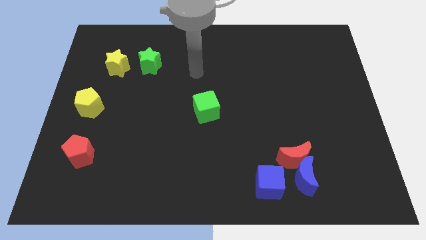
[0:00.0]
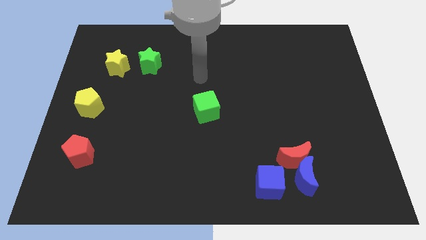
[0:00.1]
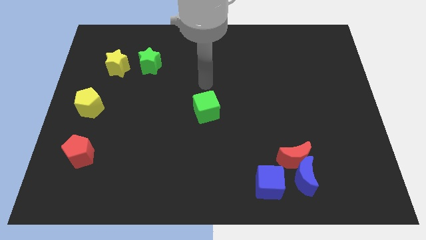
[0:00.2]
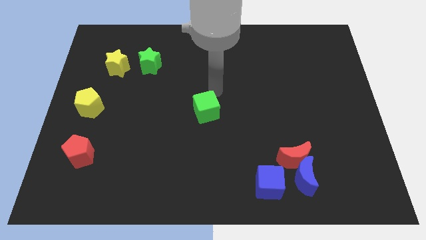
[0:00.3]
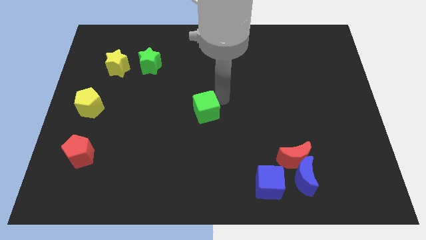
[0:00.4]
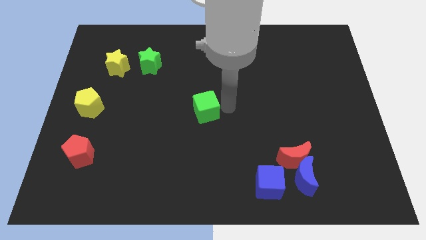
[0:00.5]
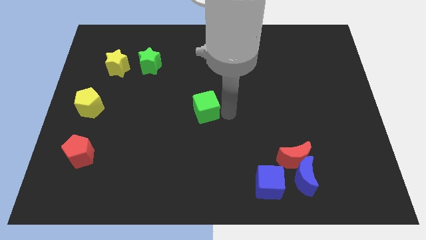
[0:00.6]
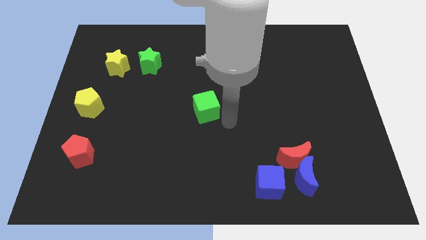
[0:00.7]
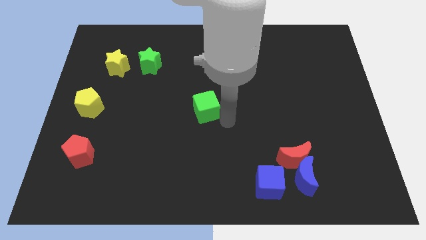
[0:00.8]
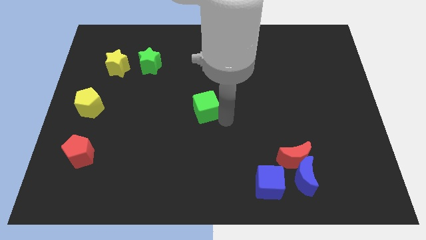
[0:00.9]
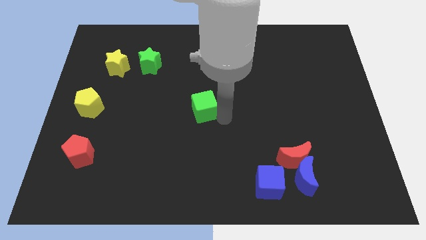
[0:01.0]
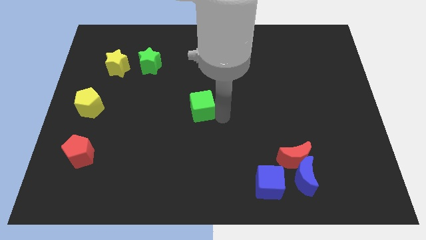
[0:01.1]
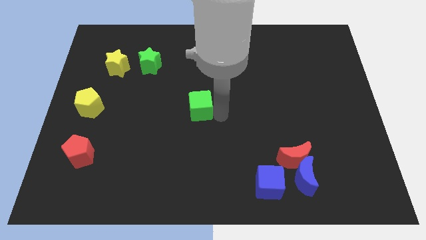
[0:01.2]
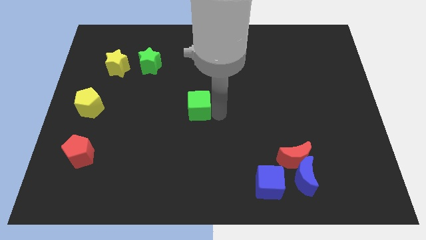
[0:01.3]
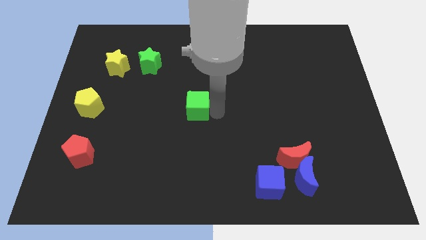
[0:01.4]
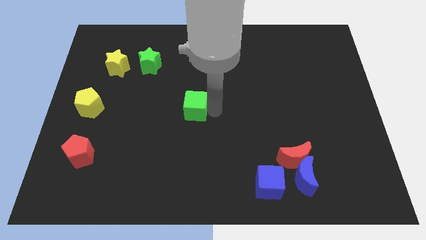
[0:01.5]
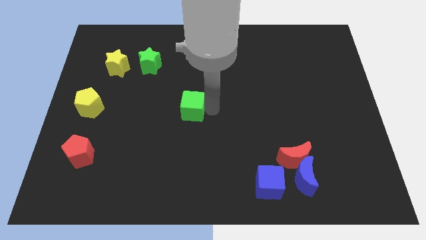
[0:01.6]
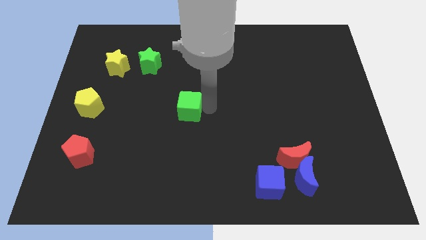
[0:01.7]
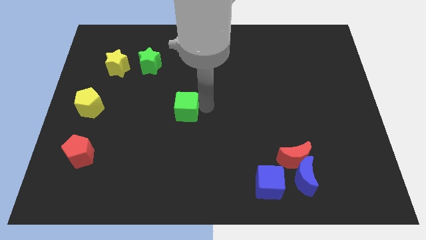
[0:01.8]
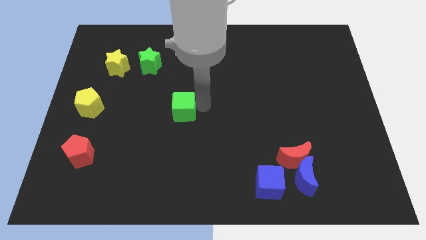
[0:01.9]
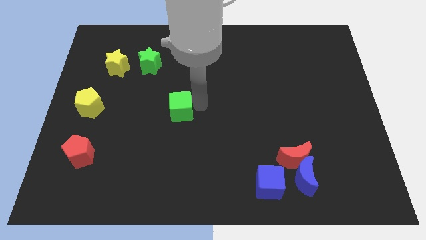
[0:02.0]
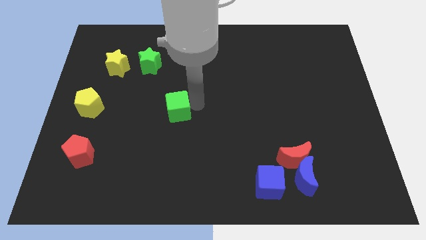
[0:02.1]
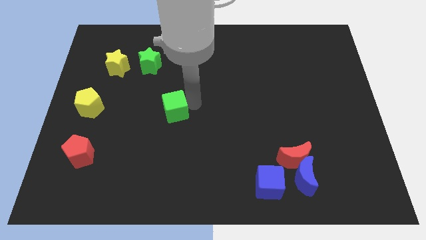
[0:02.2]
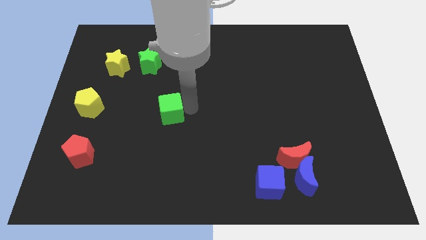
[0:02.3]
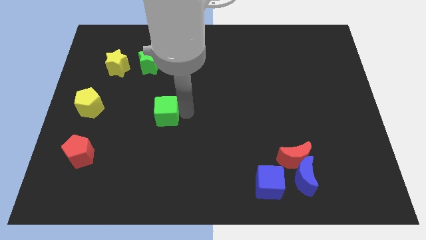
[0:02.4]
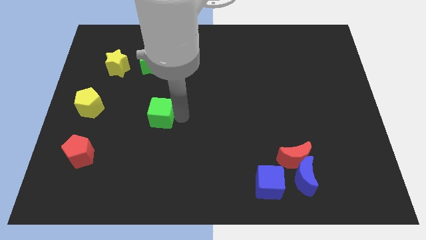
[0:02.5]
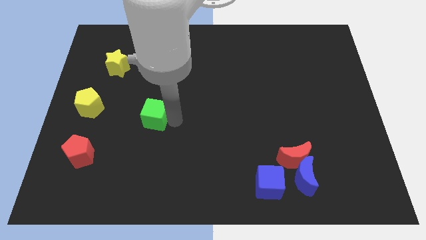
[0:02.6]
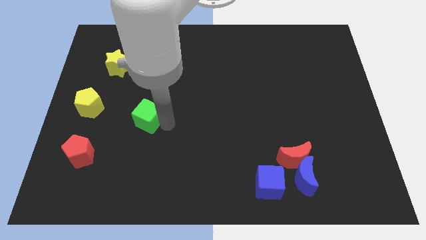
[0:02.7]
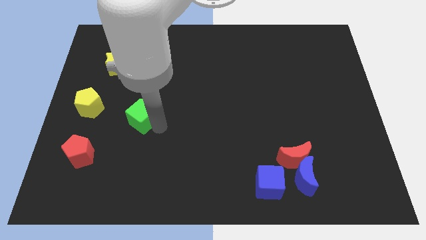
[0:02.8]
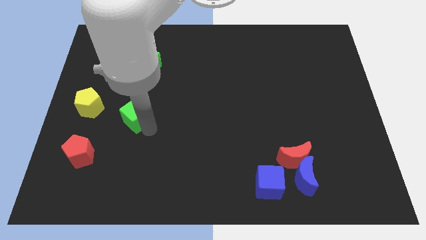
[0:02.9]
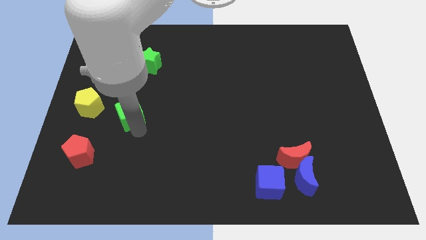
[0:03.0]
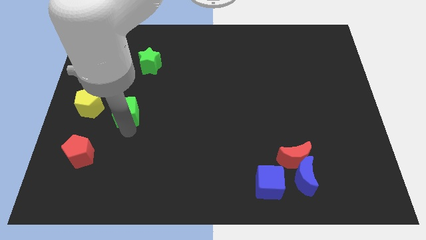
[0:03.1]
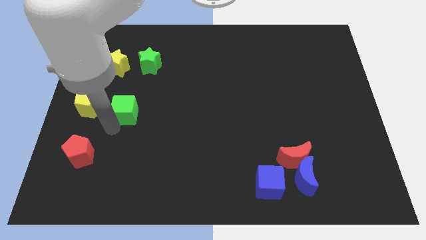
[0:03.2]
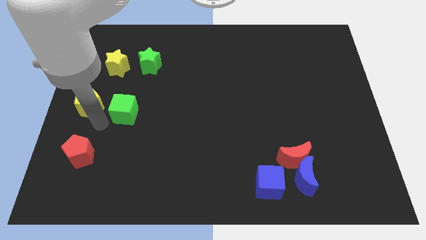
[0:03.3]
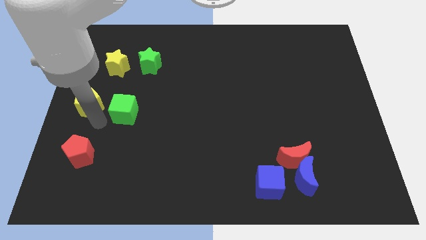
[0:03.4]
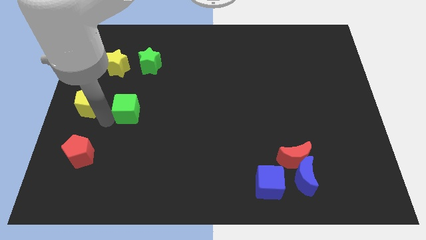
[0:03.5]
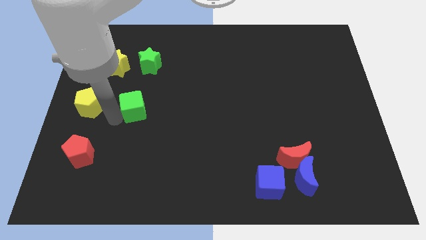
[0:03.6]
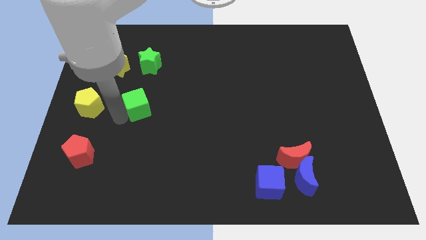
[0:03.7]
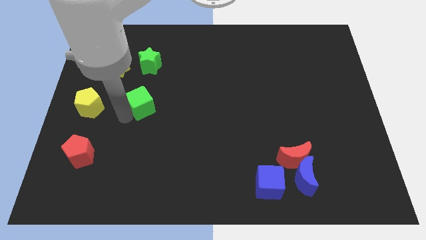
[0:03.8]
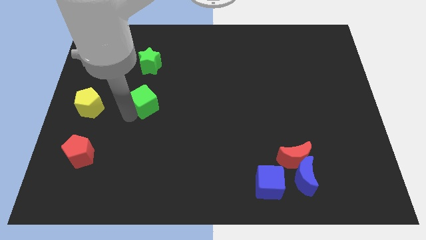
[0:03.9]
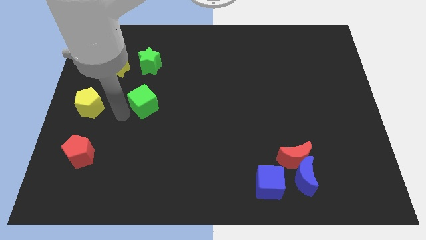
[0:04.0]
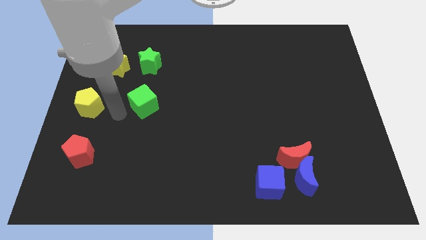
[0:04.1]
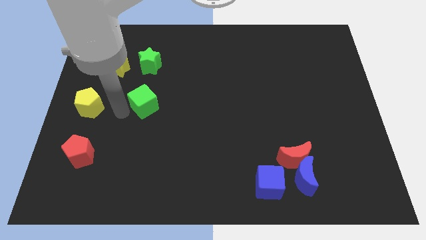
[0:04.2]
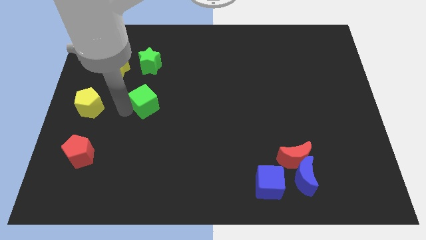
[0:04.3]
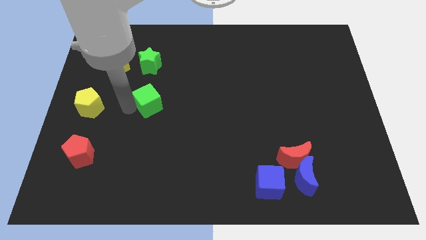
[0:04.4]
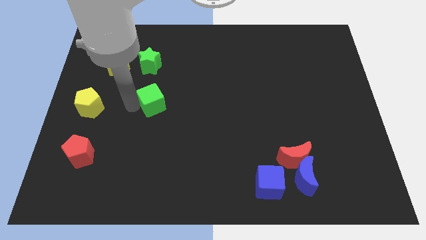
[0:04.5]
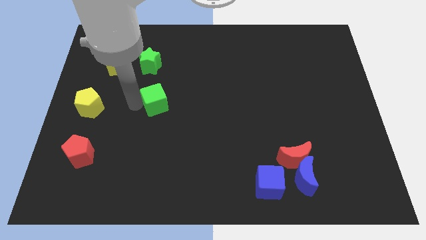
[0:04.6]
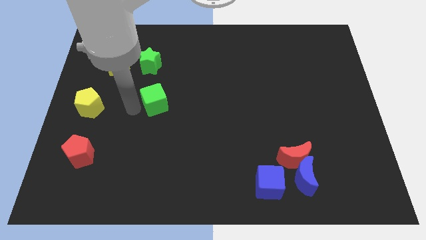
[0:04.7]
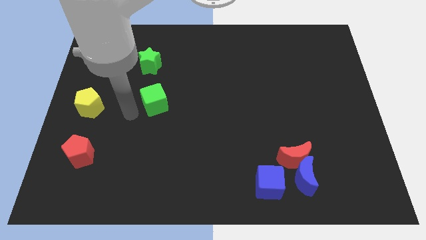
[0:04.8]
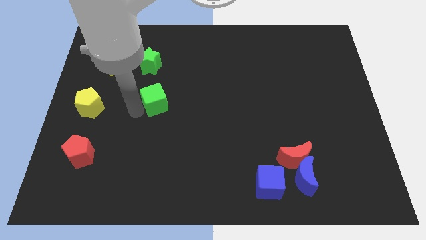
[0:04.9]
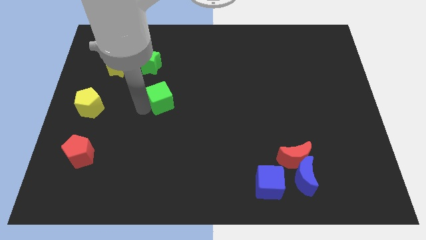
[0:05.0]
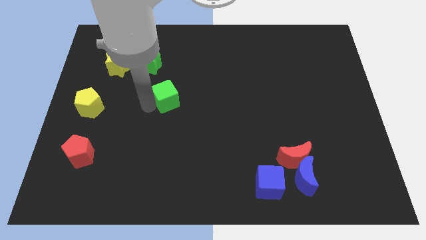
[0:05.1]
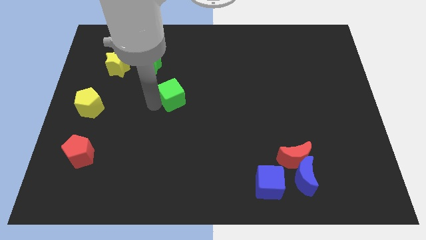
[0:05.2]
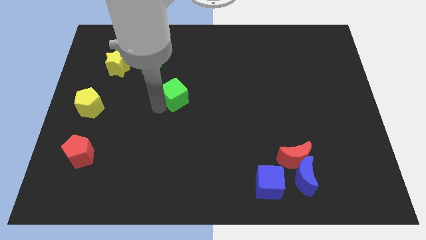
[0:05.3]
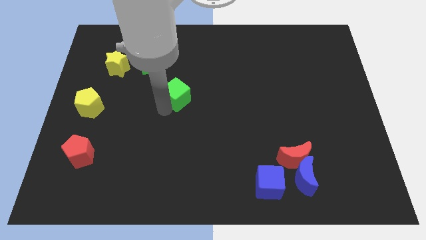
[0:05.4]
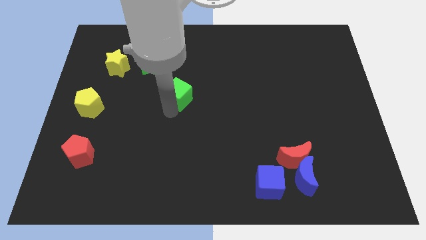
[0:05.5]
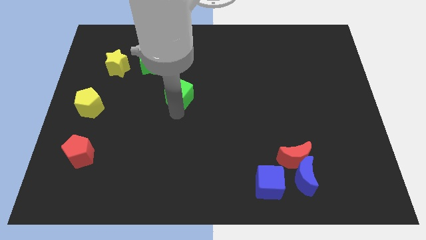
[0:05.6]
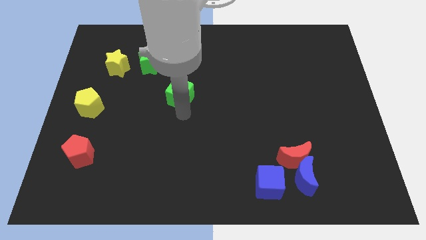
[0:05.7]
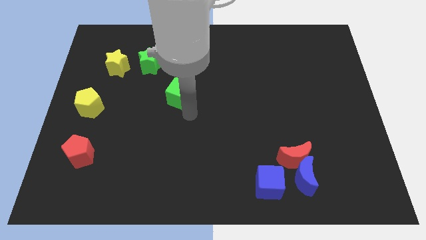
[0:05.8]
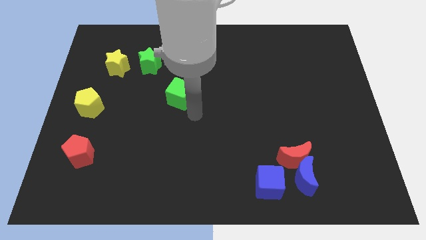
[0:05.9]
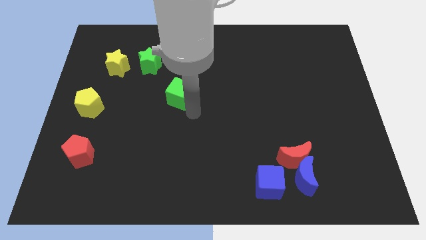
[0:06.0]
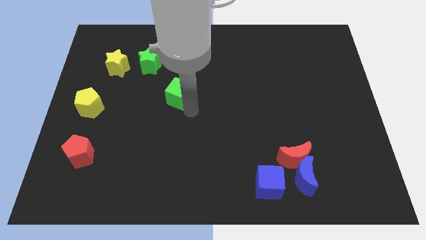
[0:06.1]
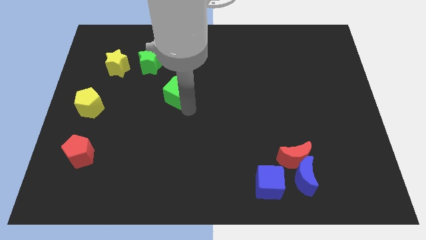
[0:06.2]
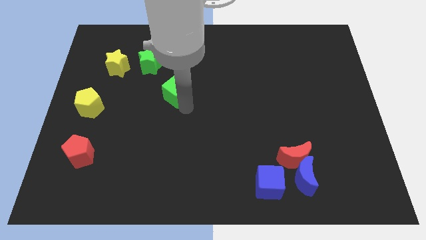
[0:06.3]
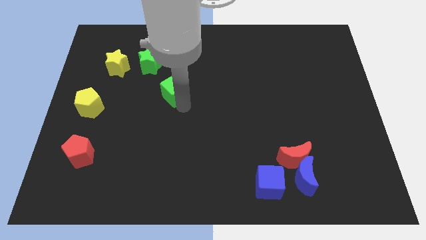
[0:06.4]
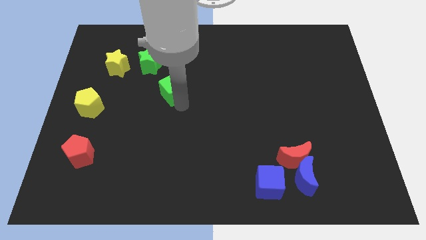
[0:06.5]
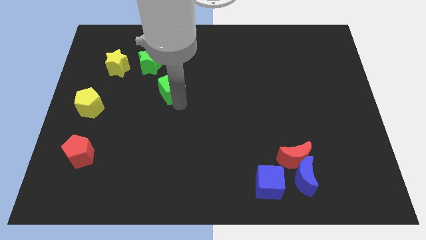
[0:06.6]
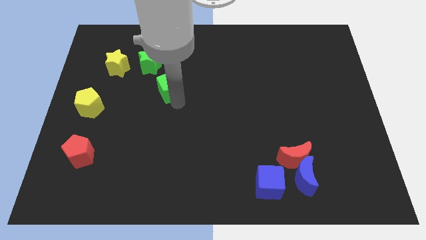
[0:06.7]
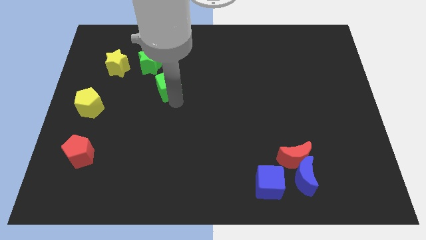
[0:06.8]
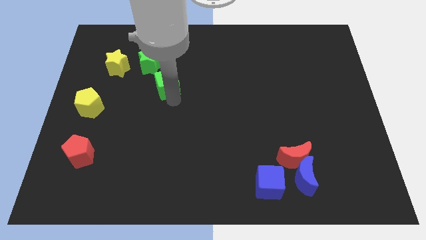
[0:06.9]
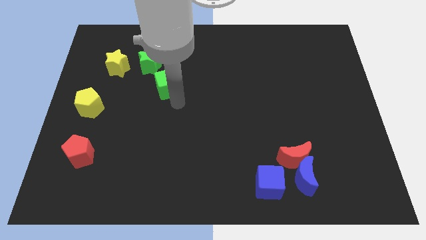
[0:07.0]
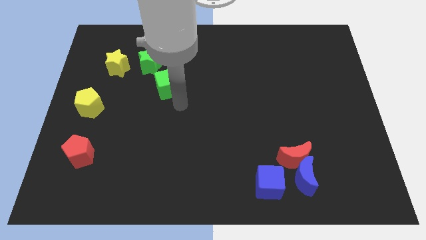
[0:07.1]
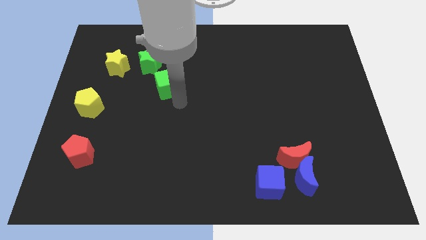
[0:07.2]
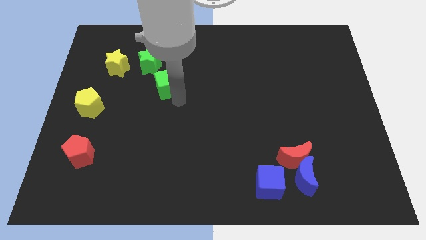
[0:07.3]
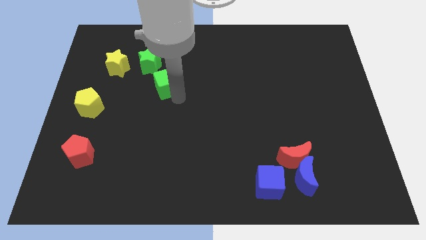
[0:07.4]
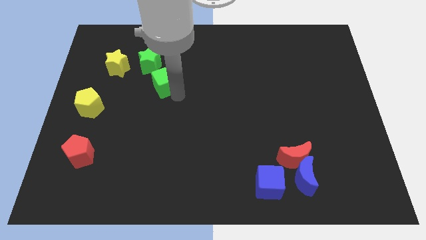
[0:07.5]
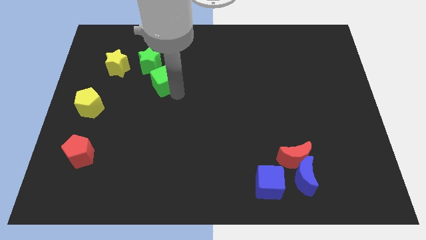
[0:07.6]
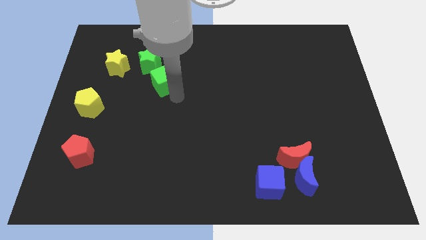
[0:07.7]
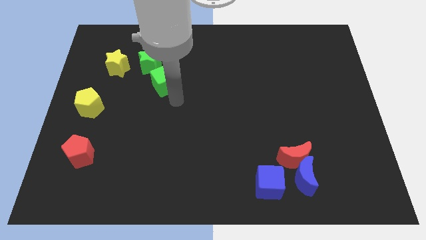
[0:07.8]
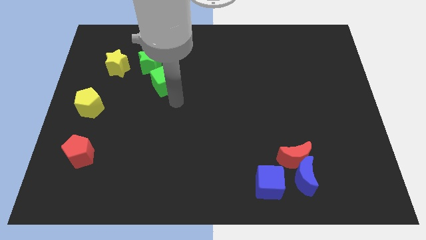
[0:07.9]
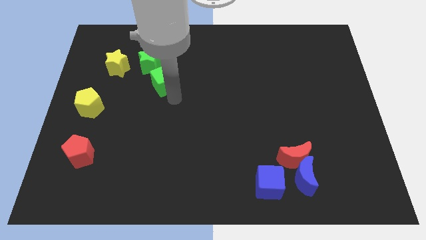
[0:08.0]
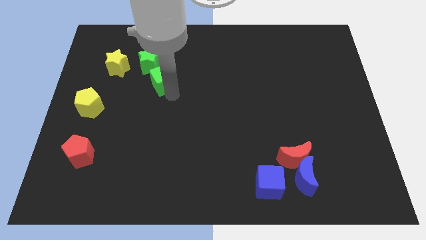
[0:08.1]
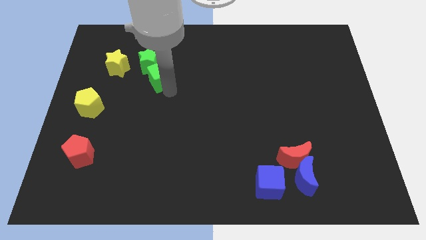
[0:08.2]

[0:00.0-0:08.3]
put the green cube towards the green star
